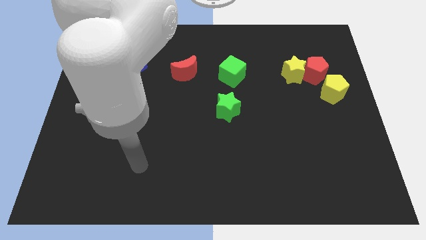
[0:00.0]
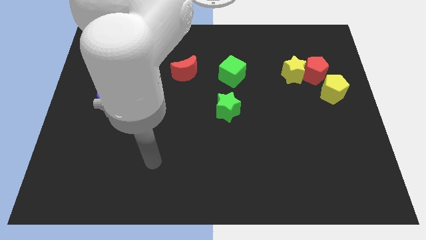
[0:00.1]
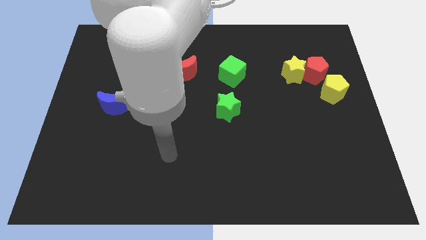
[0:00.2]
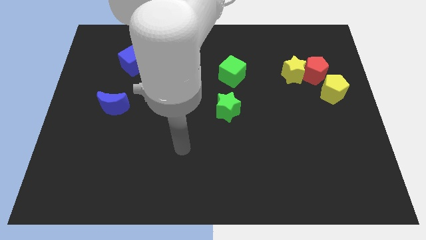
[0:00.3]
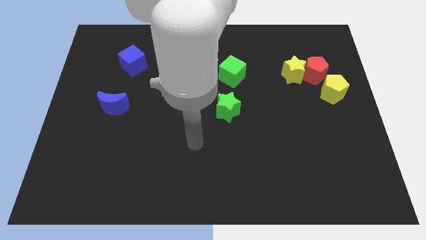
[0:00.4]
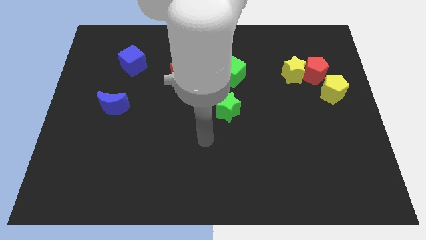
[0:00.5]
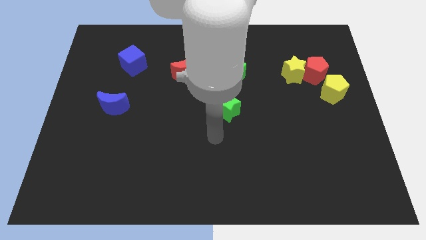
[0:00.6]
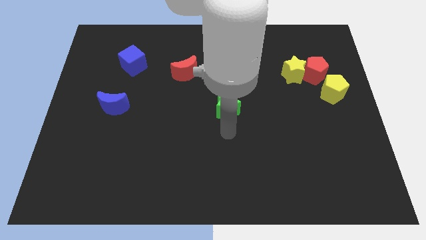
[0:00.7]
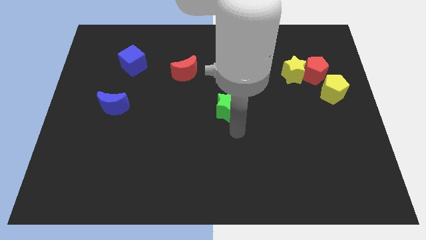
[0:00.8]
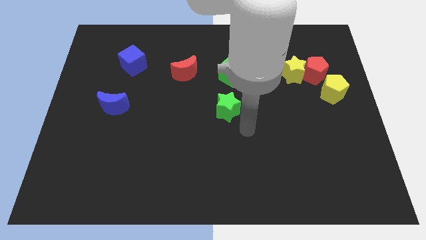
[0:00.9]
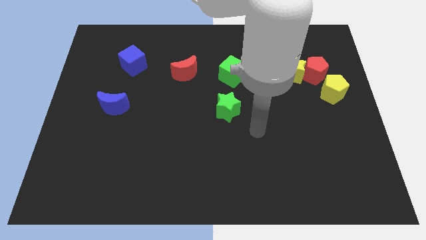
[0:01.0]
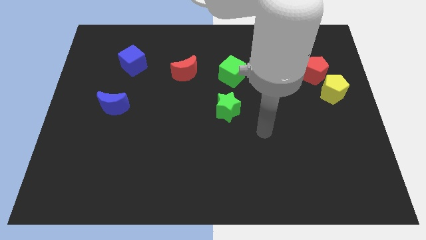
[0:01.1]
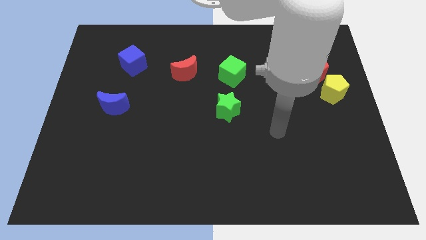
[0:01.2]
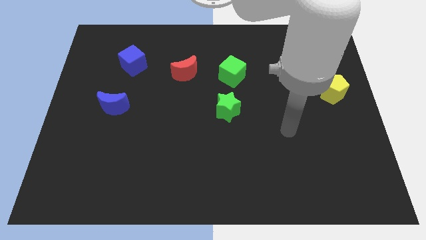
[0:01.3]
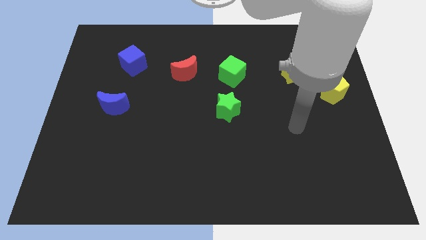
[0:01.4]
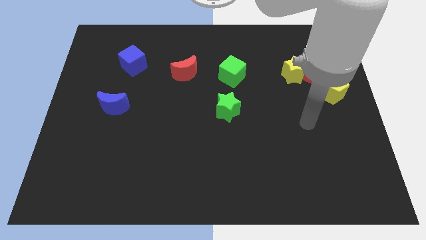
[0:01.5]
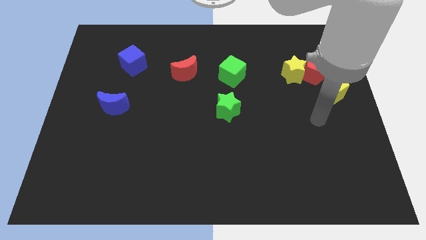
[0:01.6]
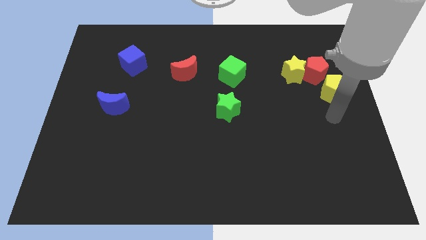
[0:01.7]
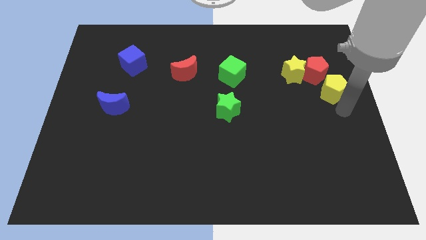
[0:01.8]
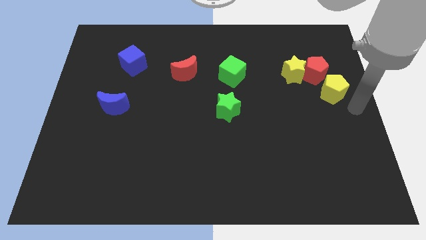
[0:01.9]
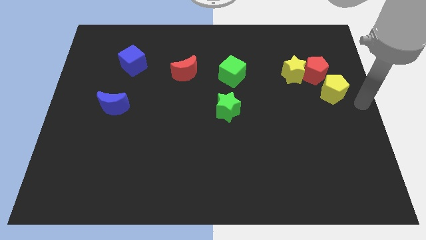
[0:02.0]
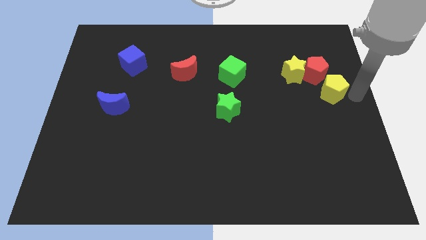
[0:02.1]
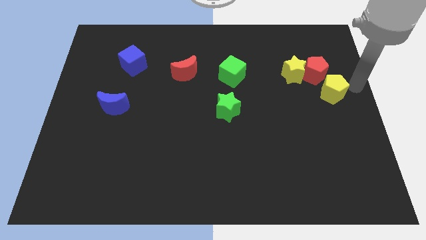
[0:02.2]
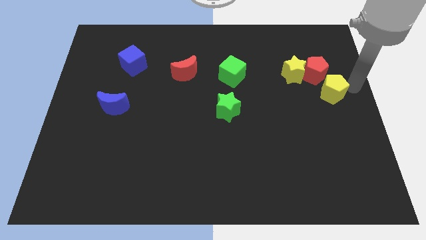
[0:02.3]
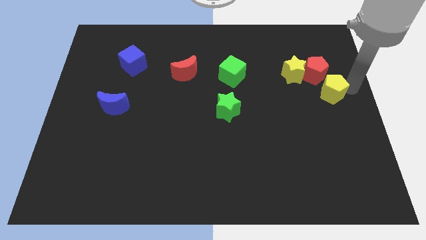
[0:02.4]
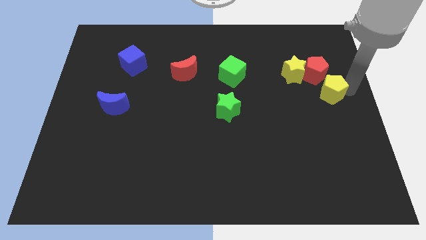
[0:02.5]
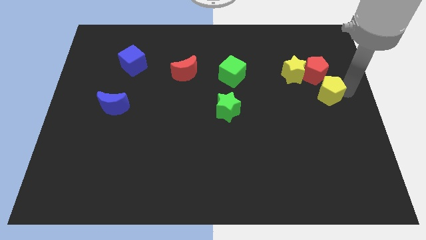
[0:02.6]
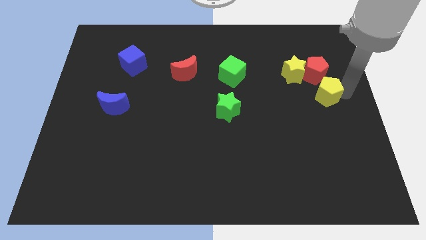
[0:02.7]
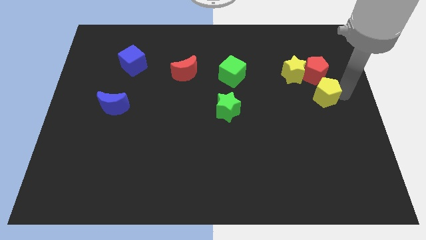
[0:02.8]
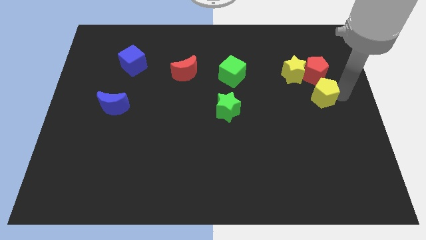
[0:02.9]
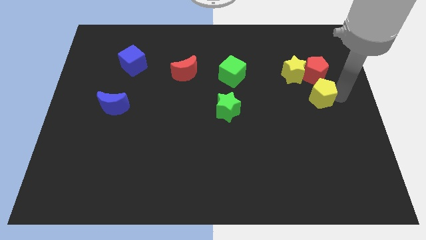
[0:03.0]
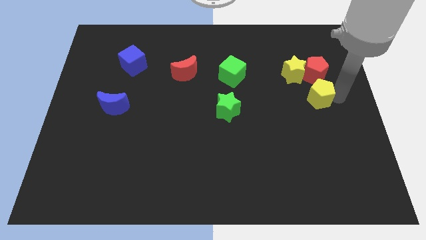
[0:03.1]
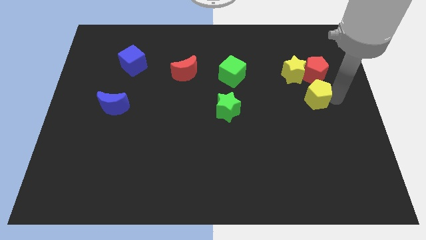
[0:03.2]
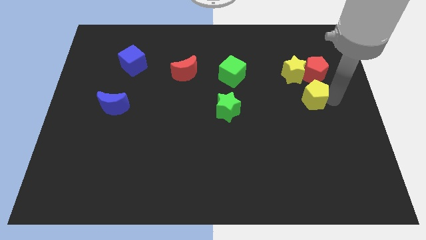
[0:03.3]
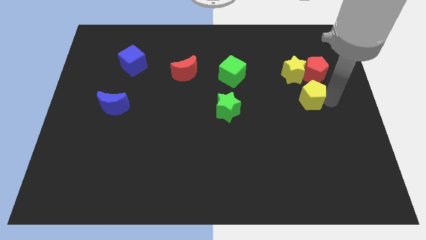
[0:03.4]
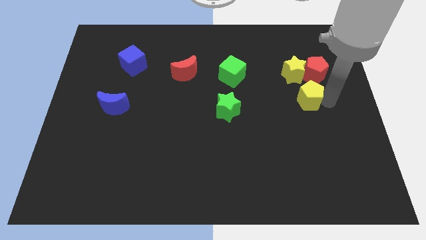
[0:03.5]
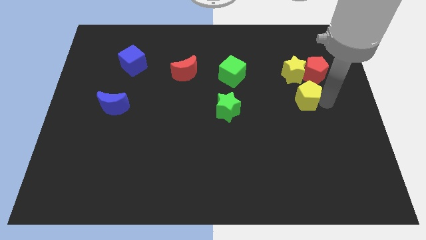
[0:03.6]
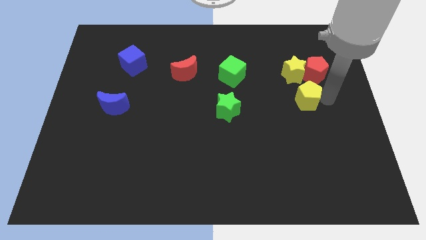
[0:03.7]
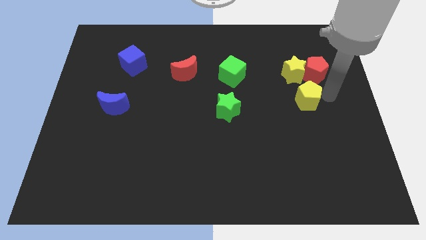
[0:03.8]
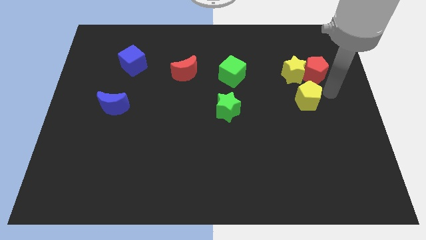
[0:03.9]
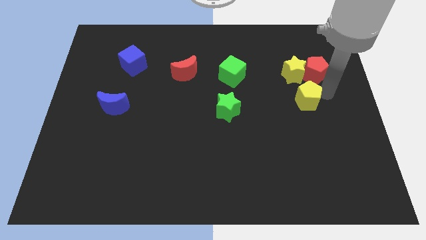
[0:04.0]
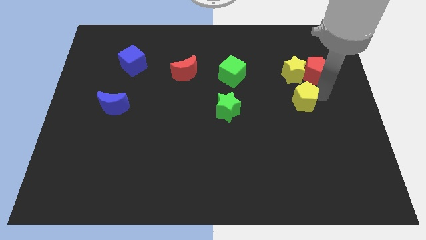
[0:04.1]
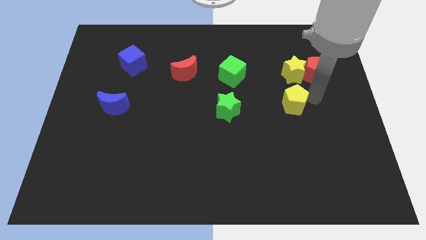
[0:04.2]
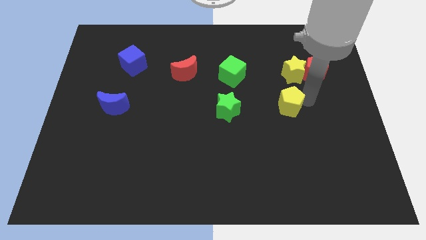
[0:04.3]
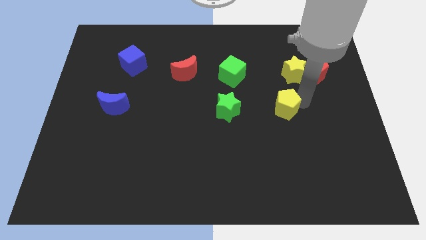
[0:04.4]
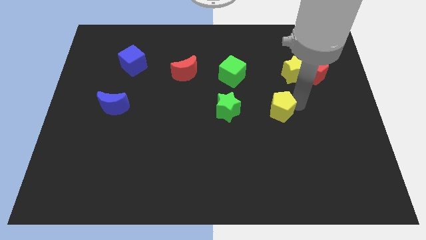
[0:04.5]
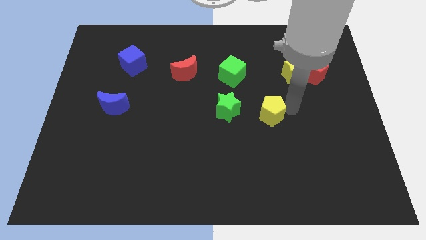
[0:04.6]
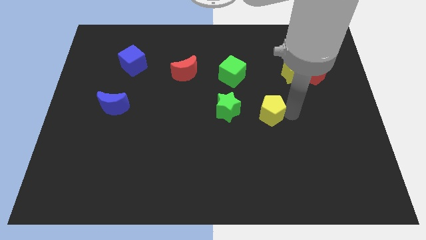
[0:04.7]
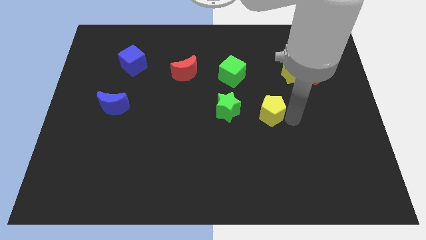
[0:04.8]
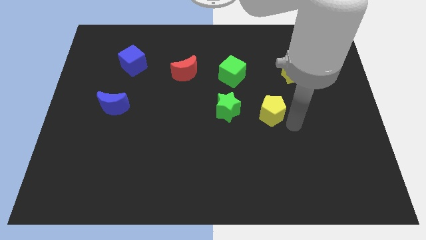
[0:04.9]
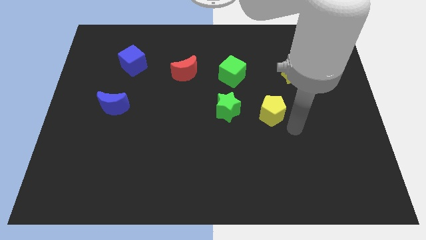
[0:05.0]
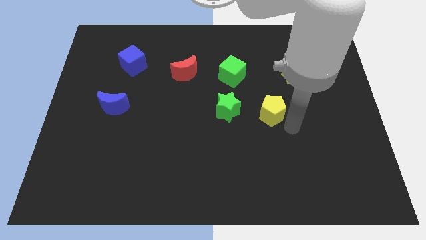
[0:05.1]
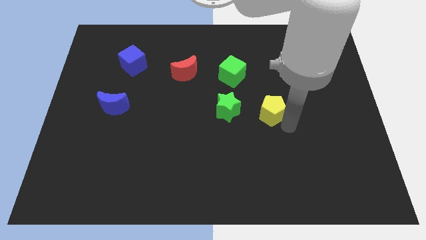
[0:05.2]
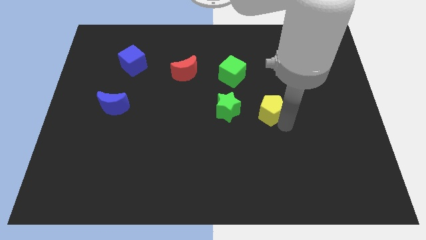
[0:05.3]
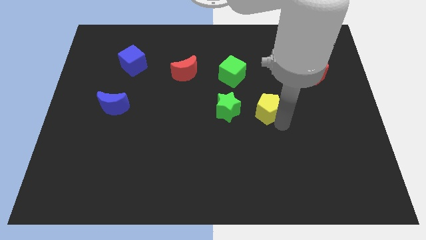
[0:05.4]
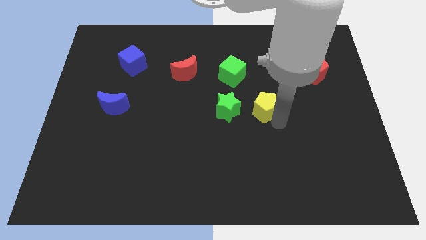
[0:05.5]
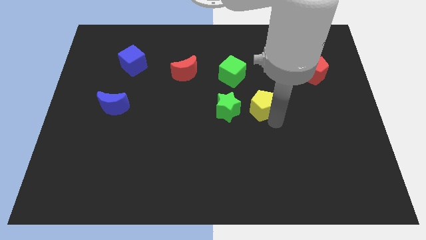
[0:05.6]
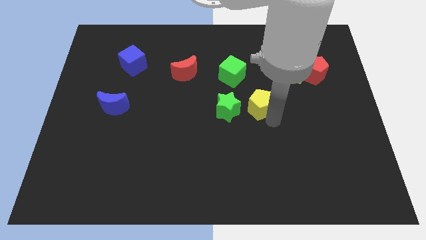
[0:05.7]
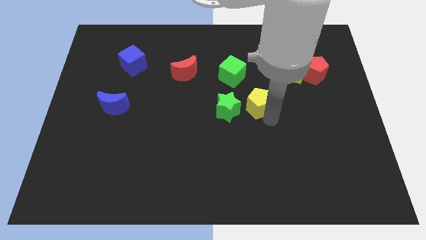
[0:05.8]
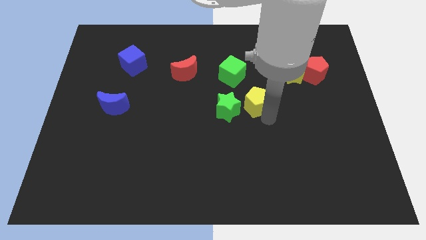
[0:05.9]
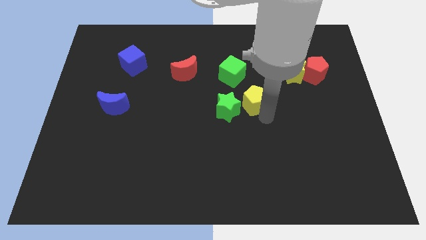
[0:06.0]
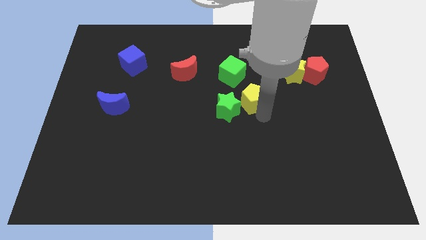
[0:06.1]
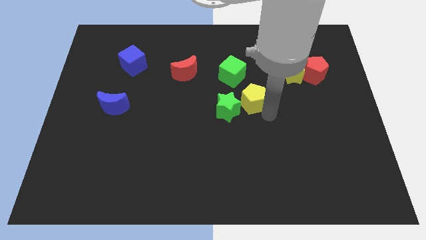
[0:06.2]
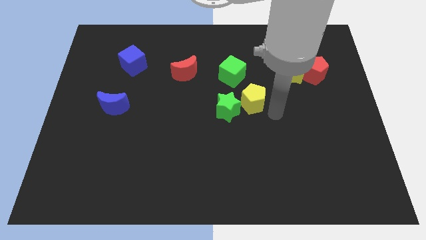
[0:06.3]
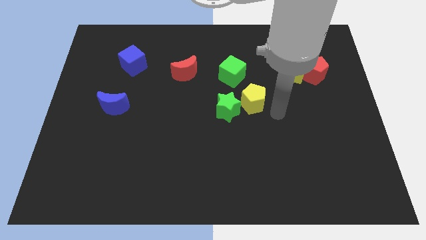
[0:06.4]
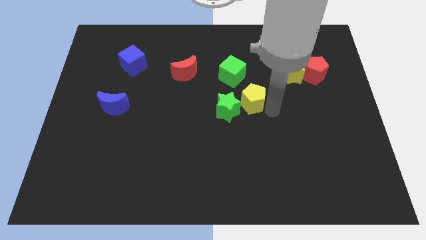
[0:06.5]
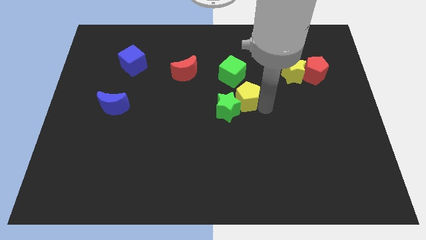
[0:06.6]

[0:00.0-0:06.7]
move the yellow pentagon left

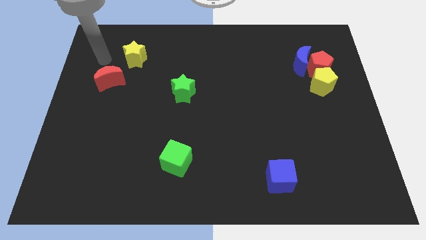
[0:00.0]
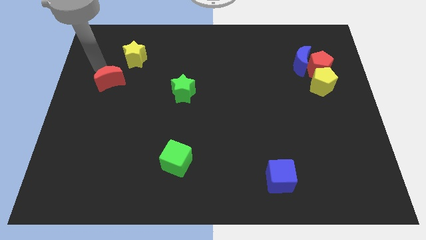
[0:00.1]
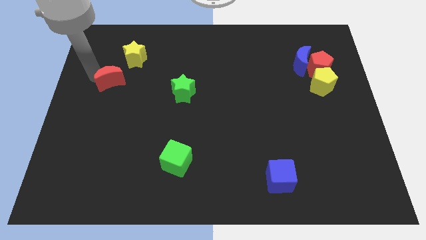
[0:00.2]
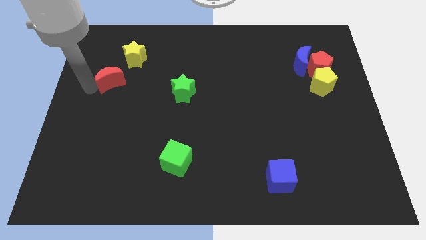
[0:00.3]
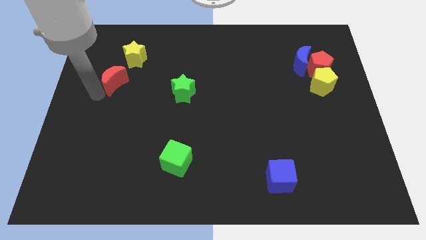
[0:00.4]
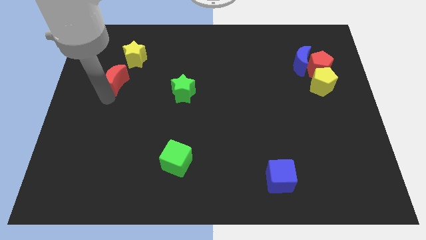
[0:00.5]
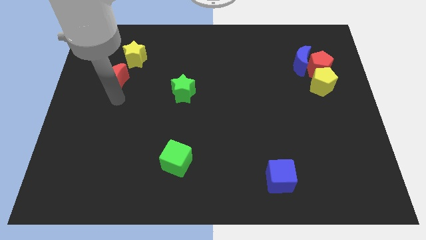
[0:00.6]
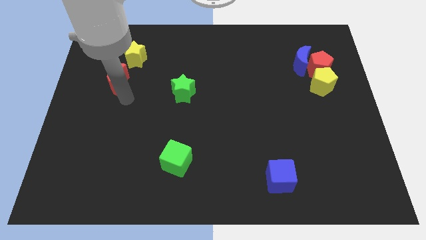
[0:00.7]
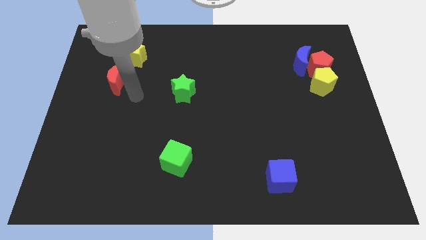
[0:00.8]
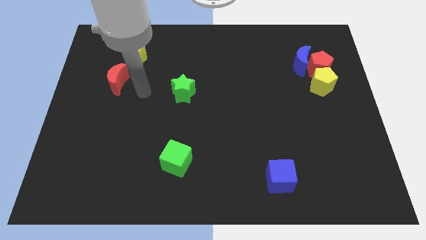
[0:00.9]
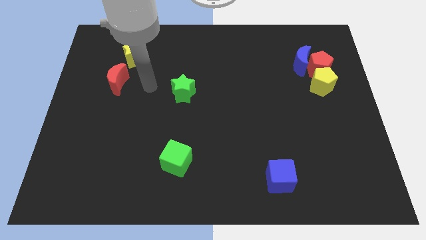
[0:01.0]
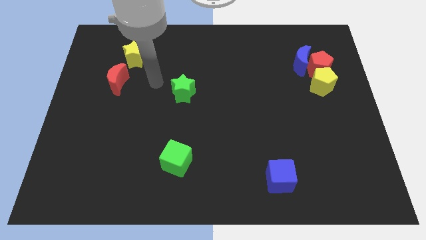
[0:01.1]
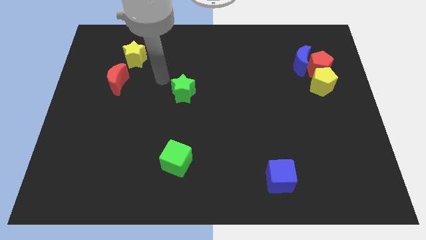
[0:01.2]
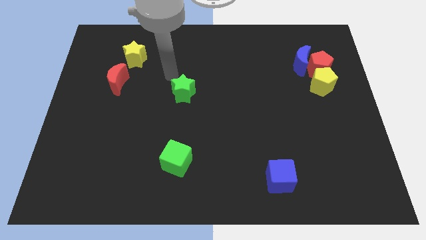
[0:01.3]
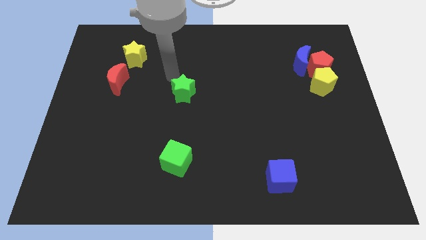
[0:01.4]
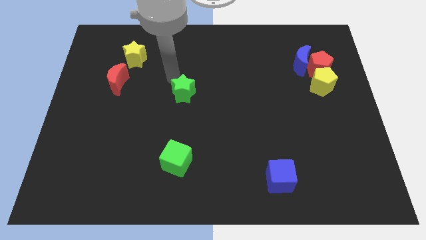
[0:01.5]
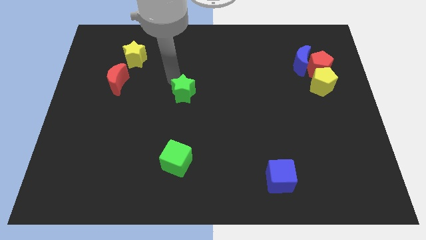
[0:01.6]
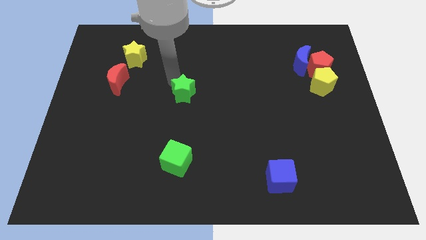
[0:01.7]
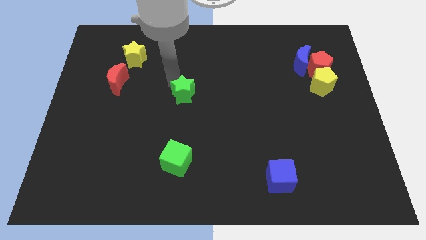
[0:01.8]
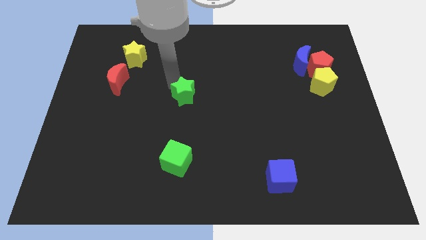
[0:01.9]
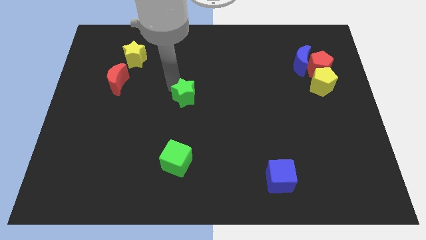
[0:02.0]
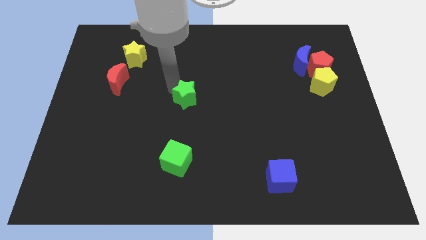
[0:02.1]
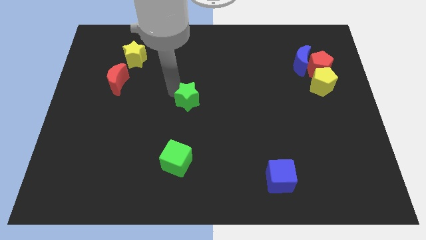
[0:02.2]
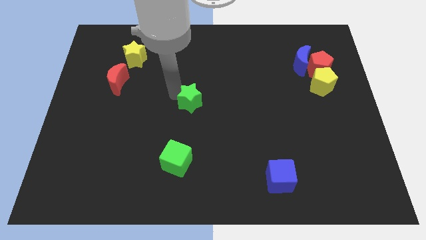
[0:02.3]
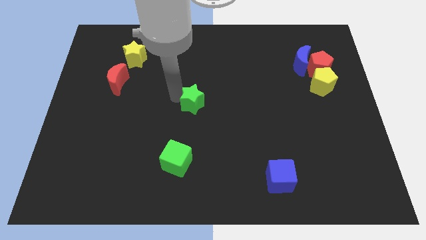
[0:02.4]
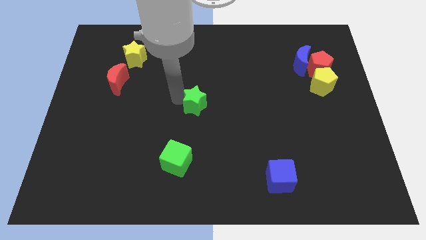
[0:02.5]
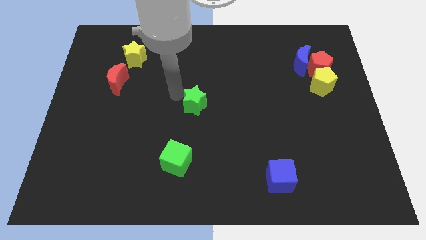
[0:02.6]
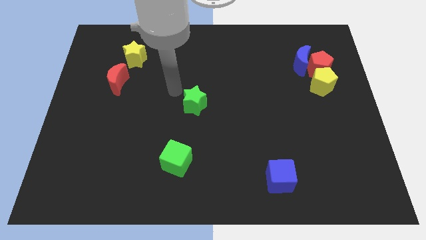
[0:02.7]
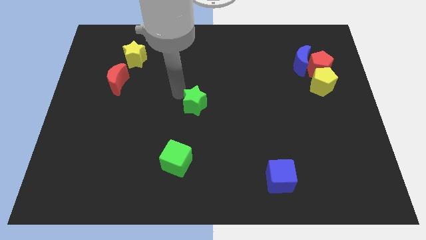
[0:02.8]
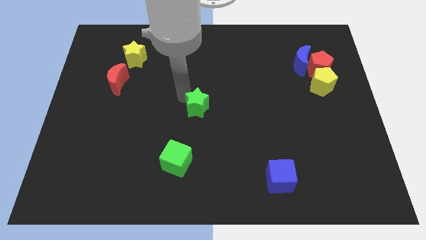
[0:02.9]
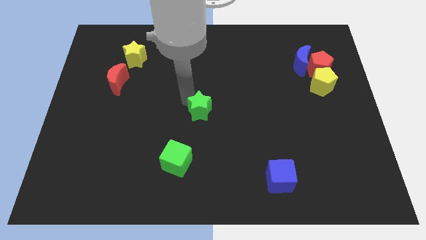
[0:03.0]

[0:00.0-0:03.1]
move the green star downwards and to the right diagonally a little bit
